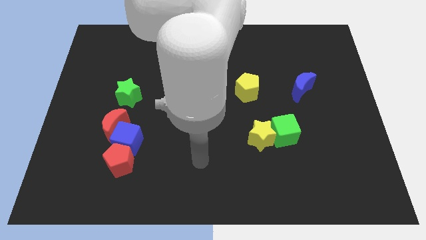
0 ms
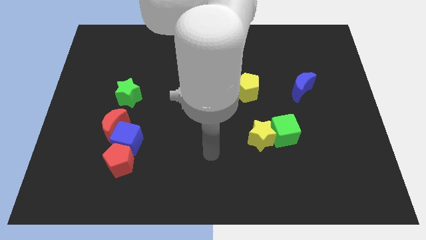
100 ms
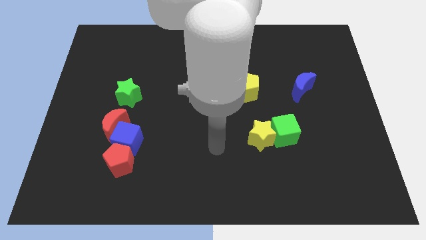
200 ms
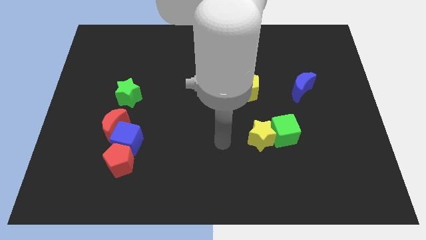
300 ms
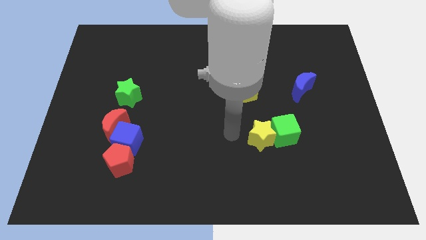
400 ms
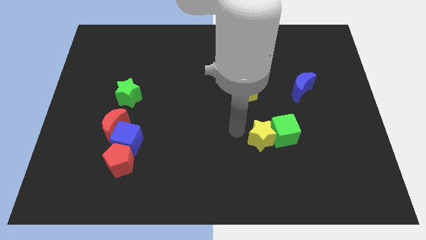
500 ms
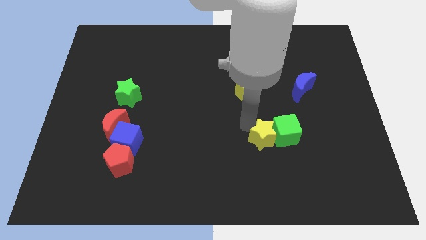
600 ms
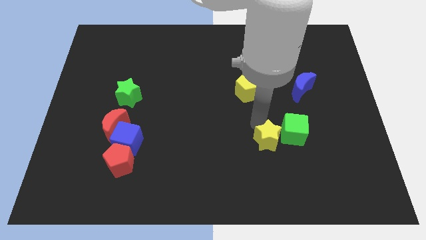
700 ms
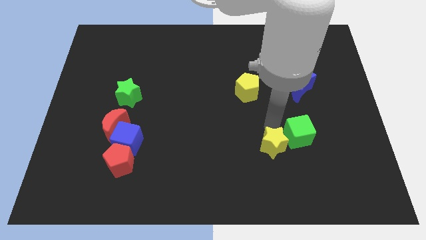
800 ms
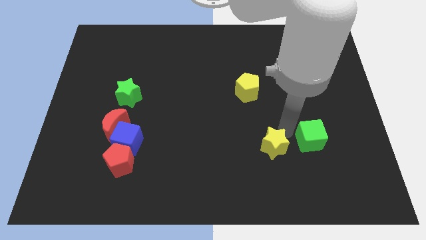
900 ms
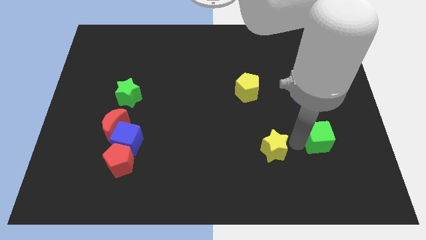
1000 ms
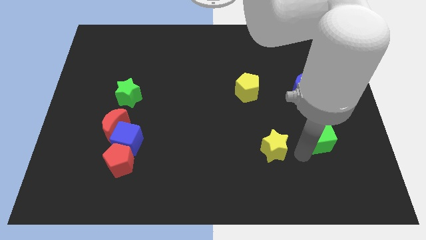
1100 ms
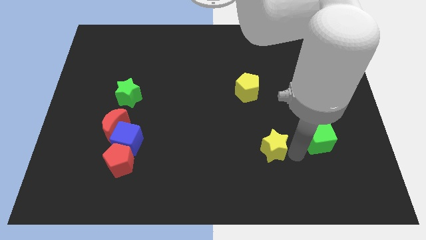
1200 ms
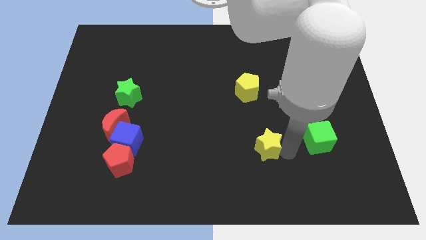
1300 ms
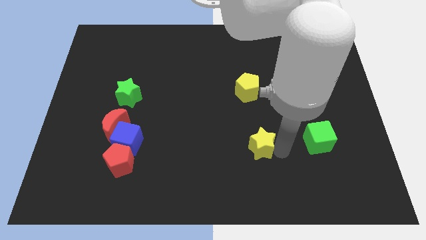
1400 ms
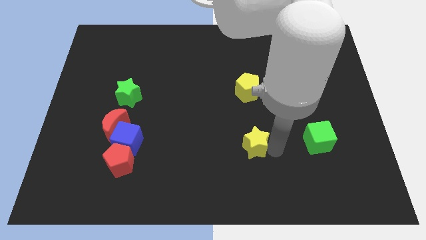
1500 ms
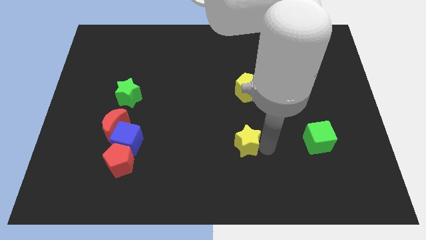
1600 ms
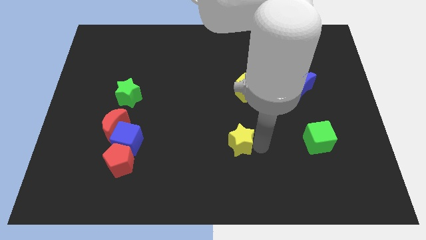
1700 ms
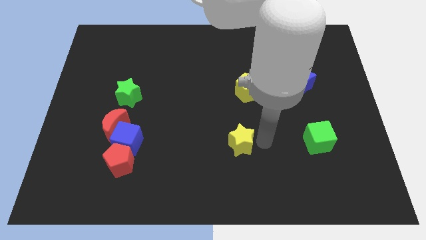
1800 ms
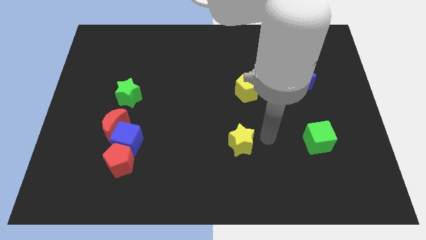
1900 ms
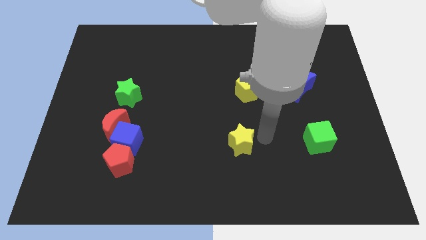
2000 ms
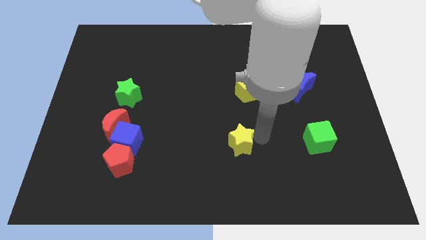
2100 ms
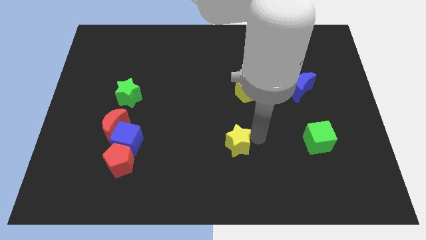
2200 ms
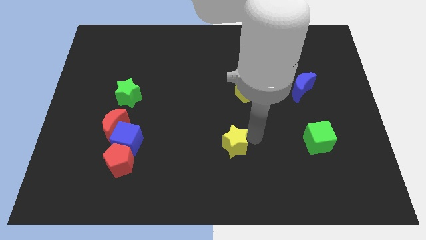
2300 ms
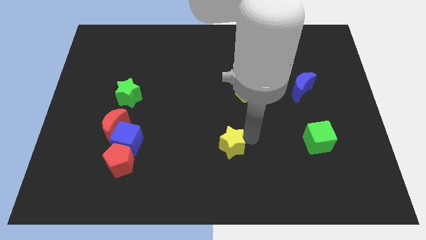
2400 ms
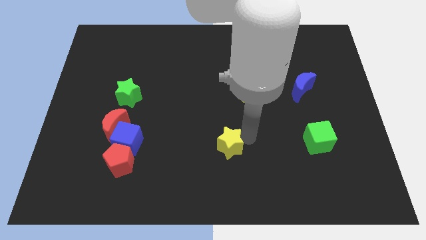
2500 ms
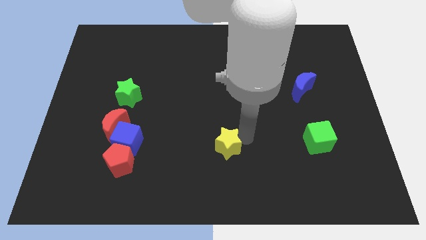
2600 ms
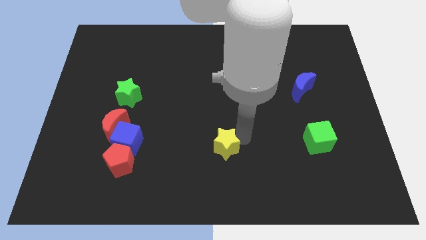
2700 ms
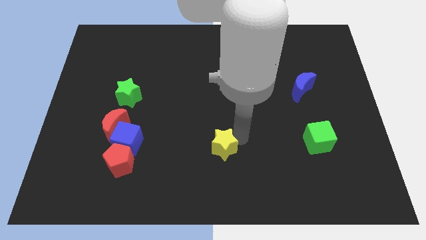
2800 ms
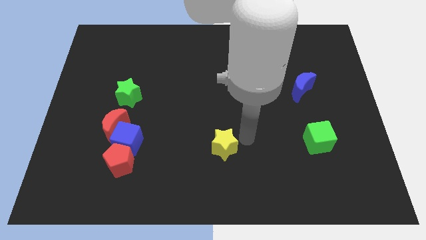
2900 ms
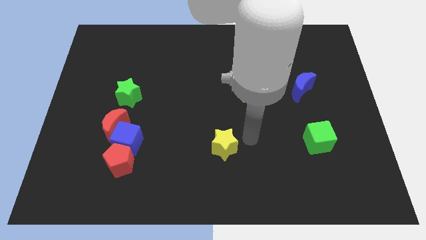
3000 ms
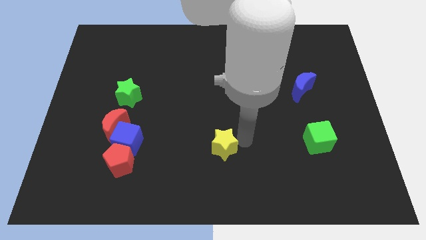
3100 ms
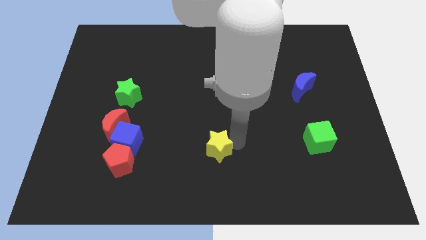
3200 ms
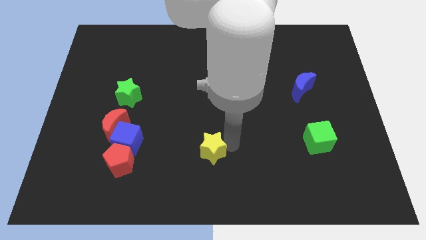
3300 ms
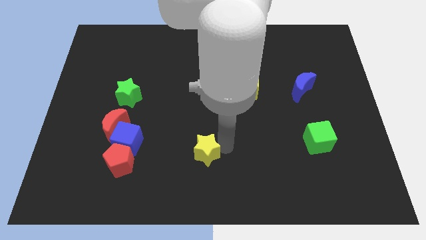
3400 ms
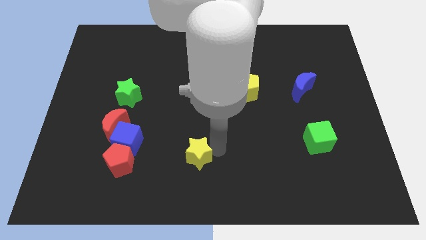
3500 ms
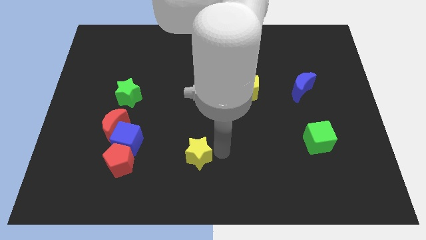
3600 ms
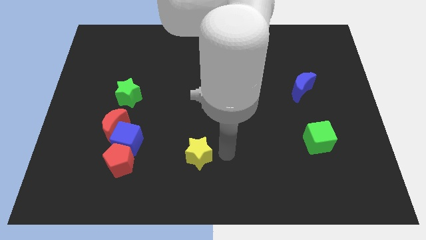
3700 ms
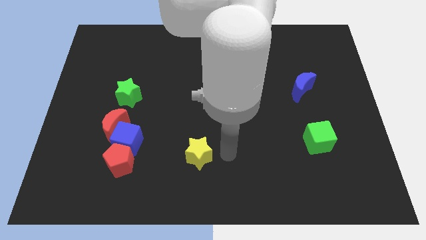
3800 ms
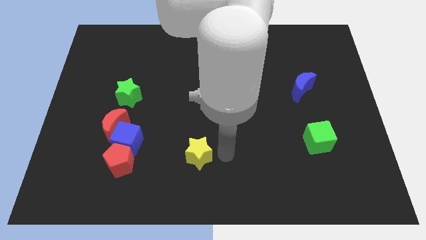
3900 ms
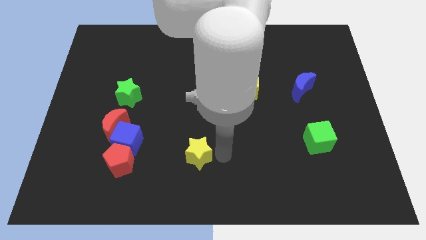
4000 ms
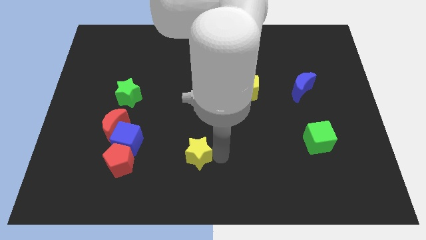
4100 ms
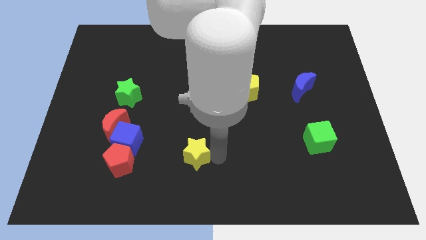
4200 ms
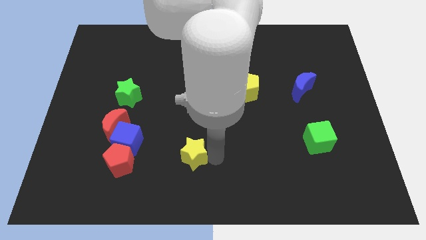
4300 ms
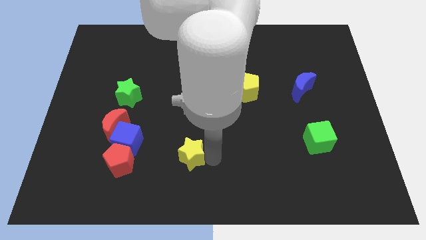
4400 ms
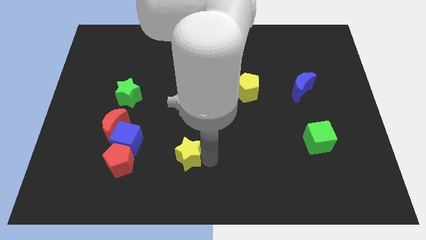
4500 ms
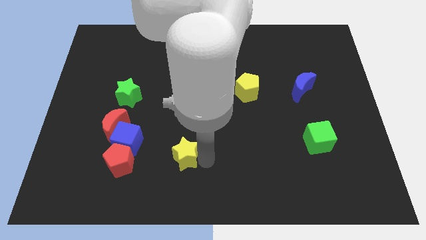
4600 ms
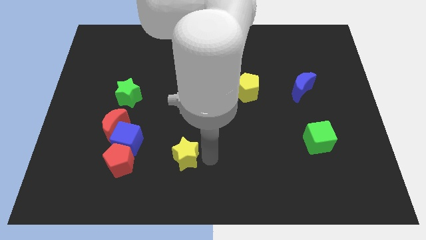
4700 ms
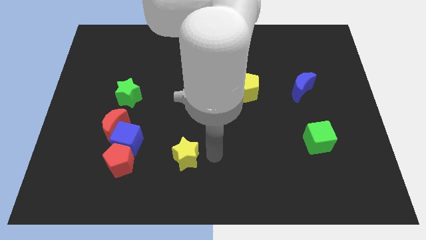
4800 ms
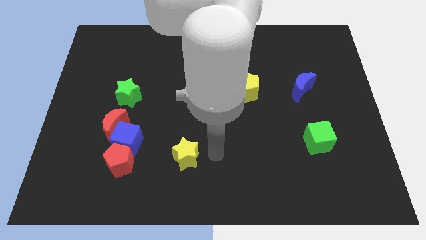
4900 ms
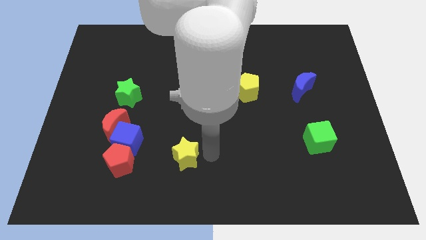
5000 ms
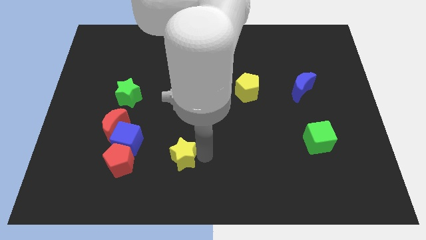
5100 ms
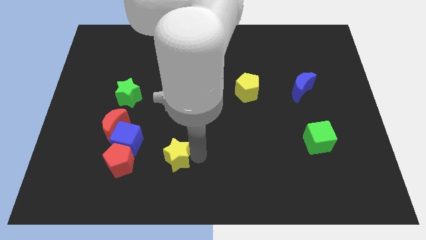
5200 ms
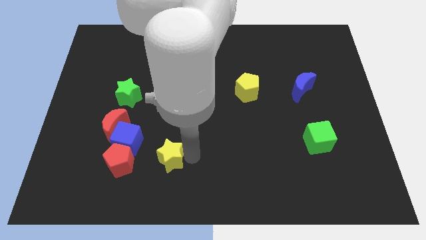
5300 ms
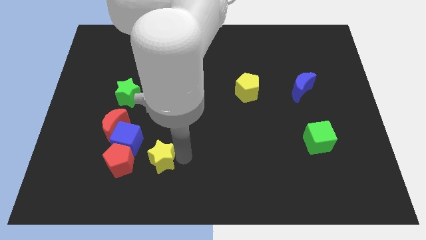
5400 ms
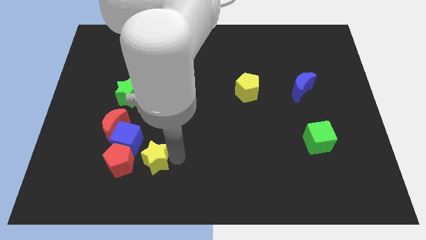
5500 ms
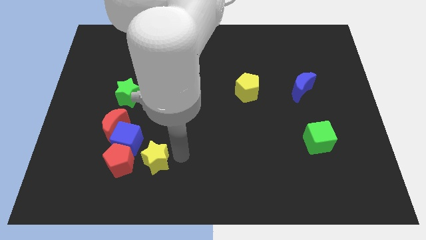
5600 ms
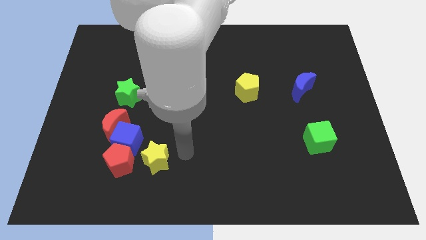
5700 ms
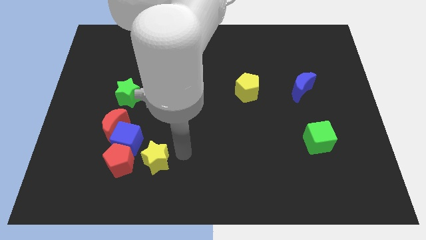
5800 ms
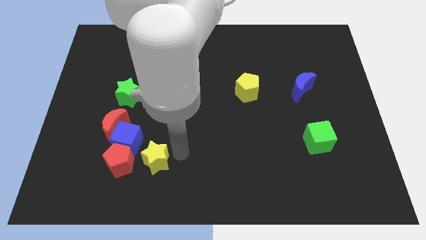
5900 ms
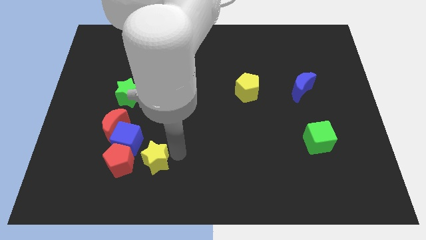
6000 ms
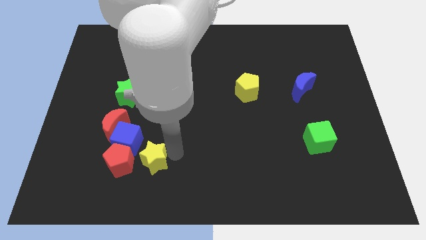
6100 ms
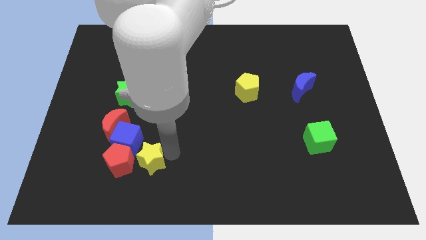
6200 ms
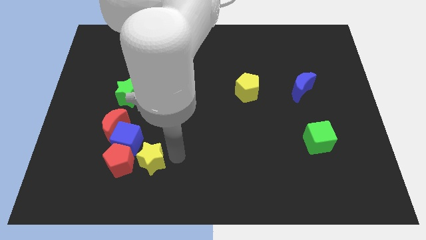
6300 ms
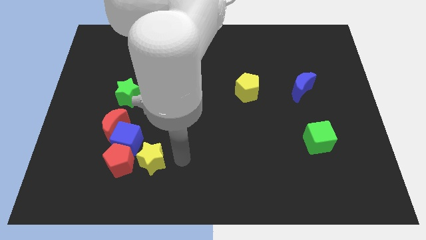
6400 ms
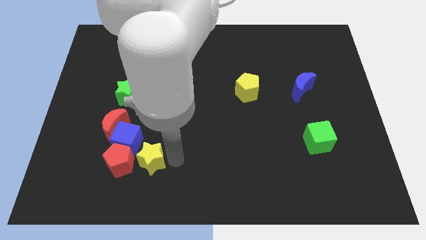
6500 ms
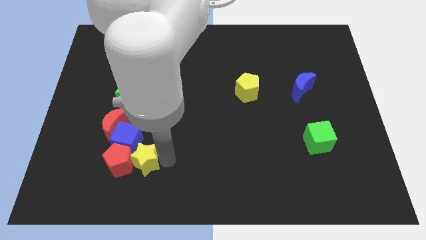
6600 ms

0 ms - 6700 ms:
put the yellow star close to the red pentagon
